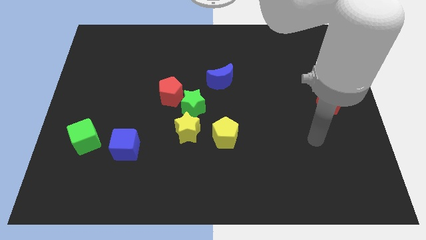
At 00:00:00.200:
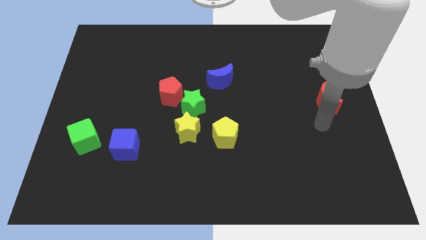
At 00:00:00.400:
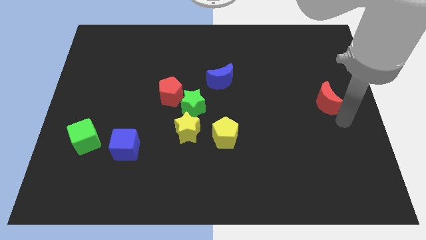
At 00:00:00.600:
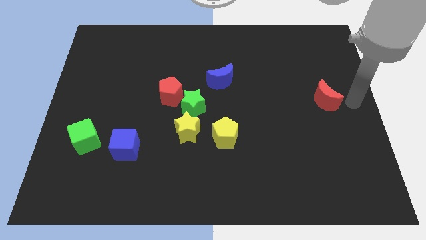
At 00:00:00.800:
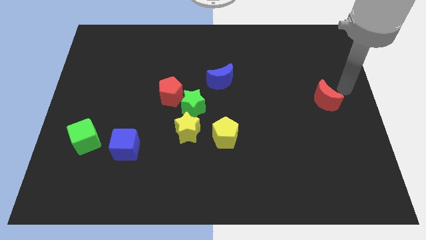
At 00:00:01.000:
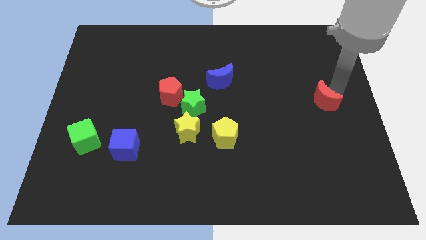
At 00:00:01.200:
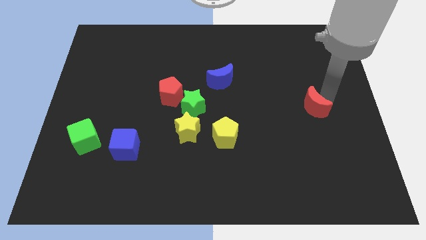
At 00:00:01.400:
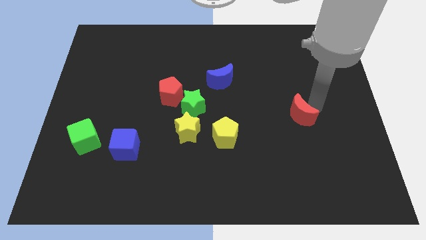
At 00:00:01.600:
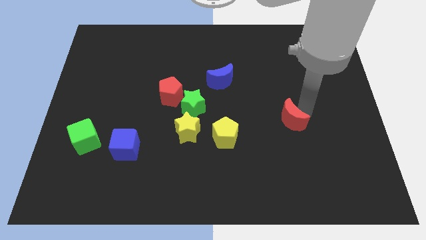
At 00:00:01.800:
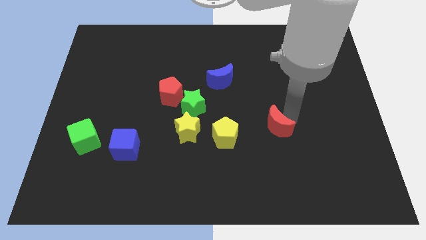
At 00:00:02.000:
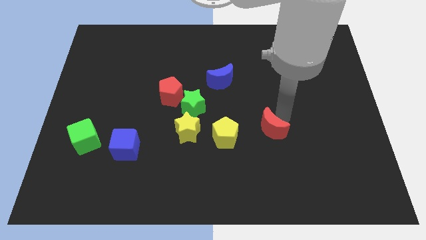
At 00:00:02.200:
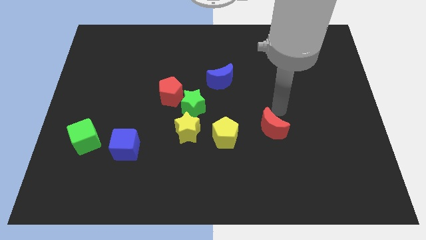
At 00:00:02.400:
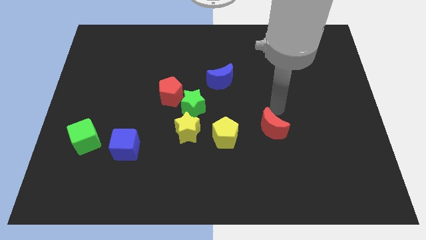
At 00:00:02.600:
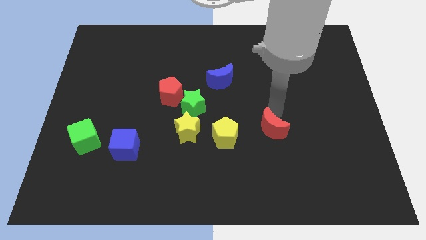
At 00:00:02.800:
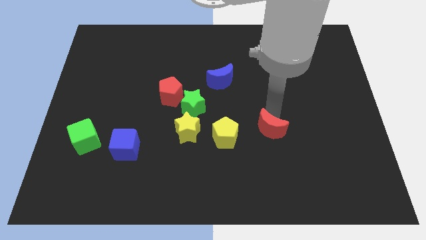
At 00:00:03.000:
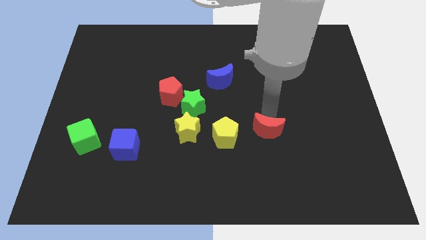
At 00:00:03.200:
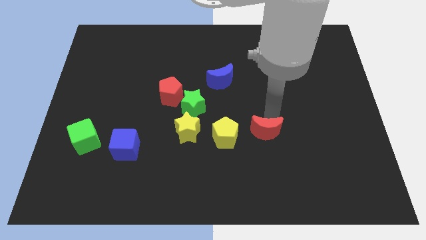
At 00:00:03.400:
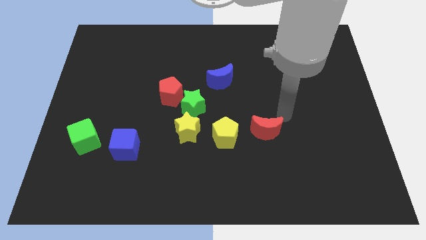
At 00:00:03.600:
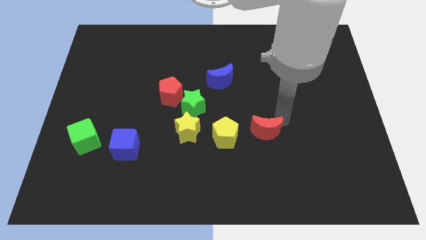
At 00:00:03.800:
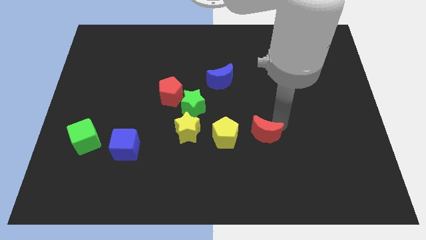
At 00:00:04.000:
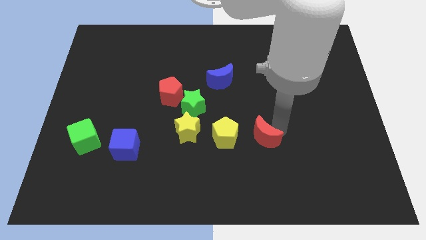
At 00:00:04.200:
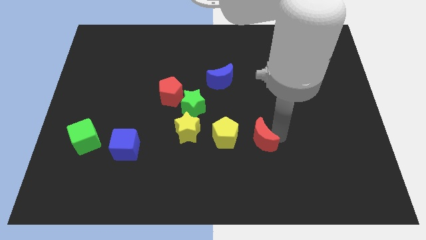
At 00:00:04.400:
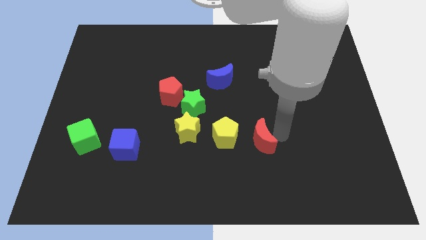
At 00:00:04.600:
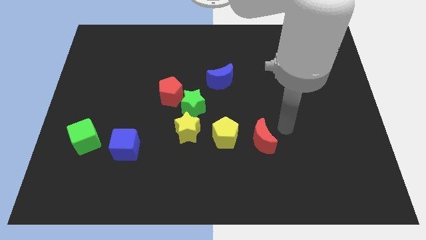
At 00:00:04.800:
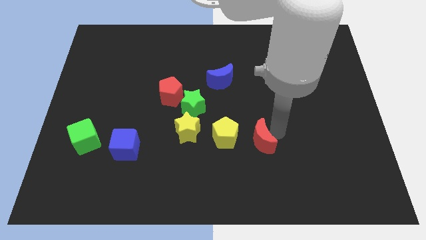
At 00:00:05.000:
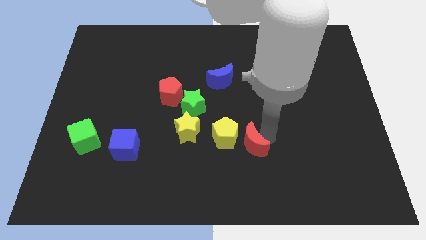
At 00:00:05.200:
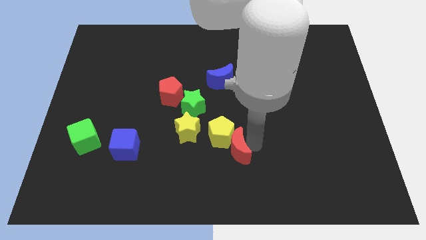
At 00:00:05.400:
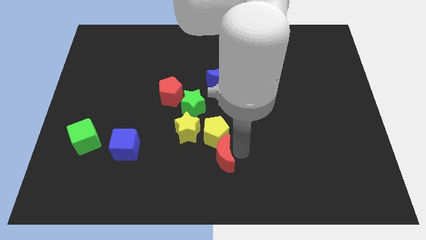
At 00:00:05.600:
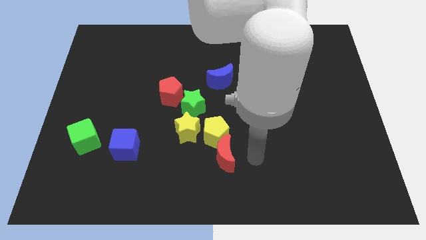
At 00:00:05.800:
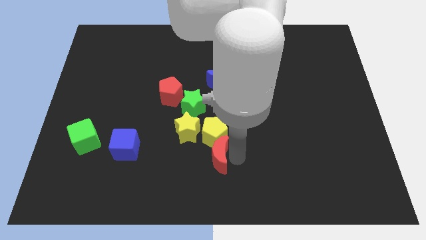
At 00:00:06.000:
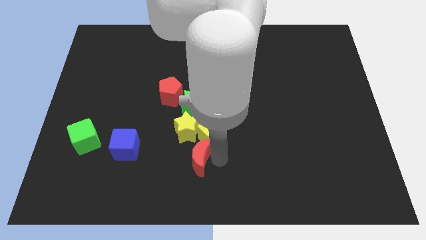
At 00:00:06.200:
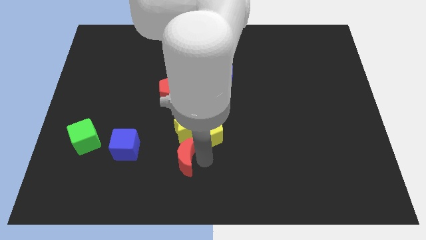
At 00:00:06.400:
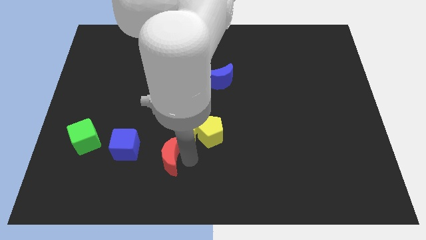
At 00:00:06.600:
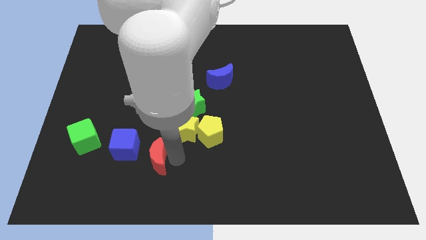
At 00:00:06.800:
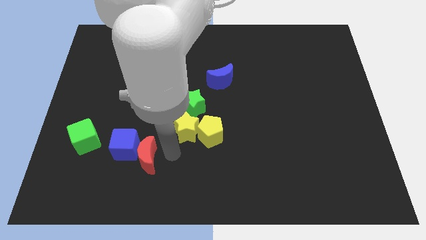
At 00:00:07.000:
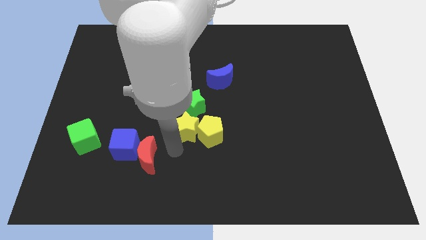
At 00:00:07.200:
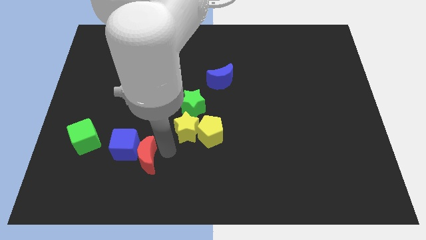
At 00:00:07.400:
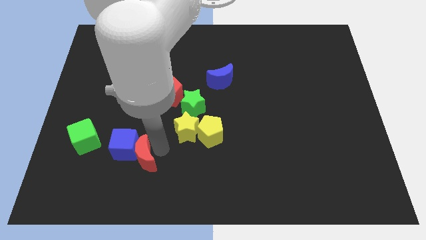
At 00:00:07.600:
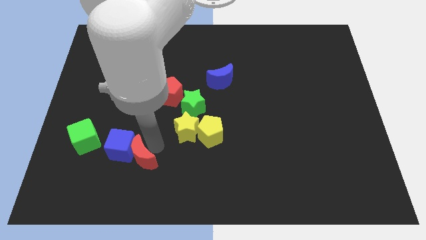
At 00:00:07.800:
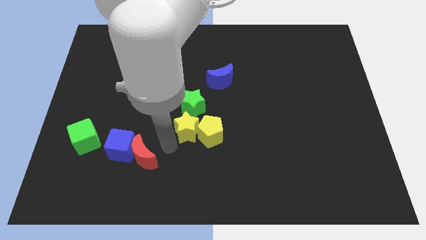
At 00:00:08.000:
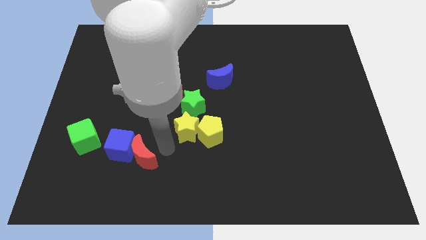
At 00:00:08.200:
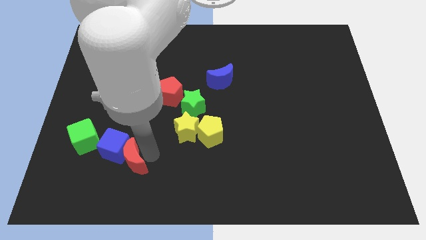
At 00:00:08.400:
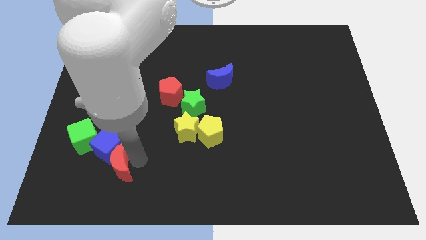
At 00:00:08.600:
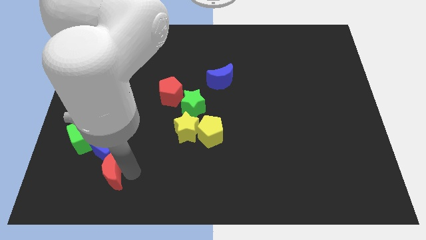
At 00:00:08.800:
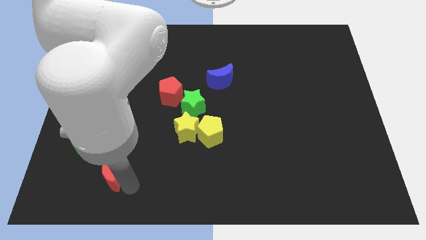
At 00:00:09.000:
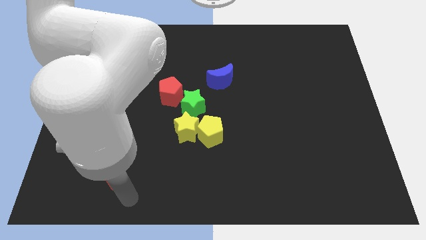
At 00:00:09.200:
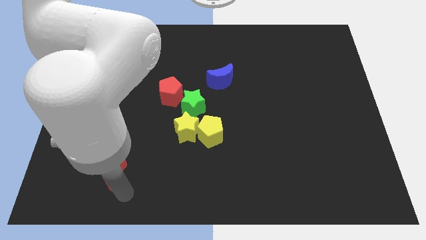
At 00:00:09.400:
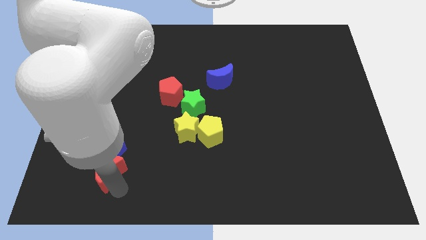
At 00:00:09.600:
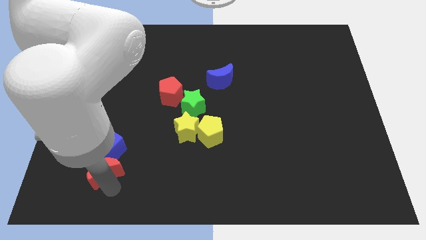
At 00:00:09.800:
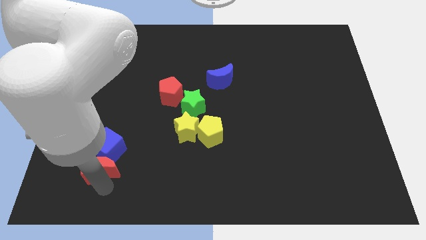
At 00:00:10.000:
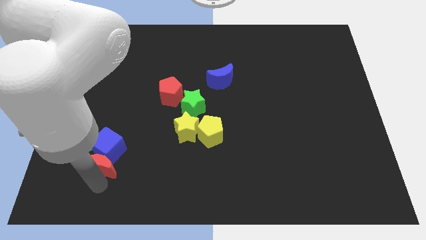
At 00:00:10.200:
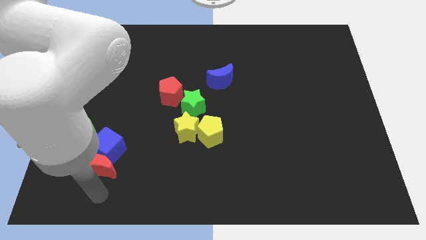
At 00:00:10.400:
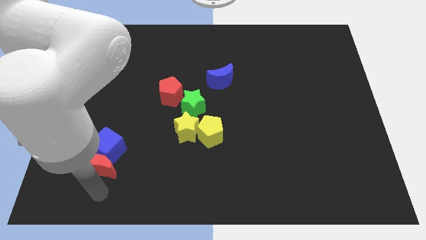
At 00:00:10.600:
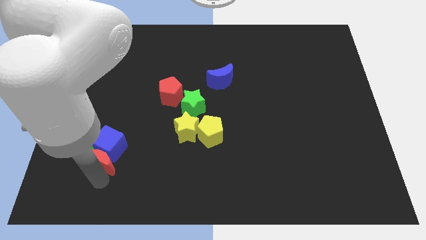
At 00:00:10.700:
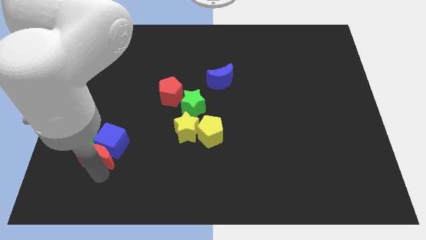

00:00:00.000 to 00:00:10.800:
move the red moon next to the green cube

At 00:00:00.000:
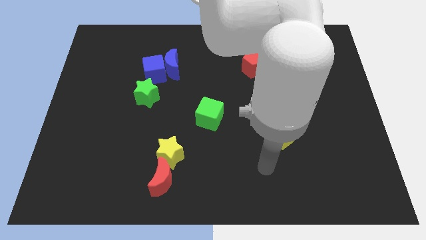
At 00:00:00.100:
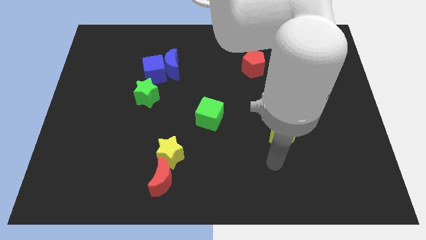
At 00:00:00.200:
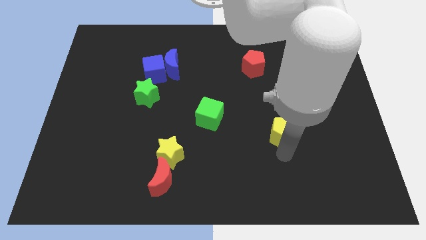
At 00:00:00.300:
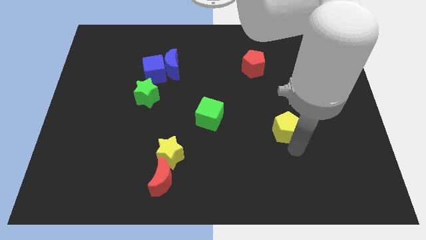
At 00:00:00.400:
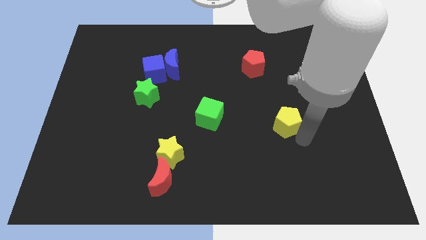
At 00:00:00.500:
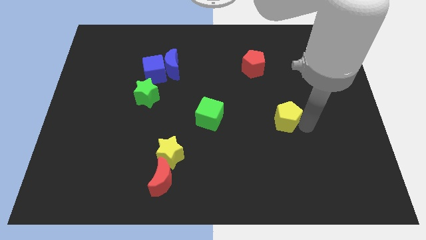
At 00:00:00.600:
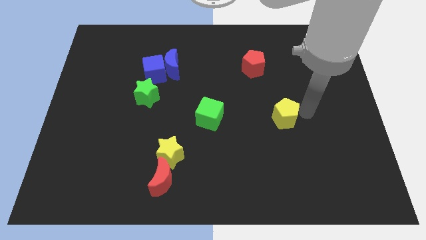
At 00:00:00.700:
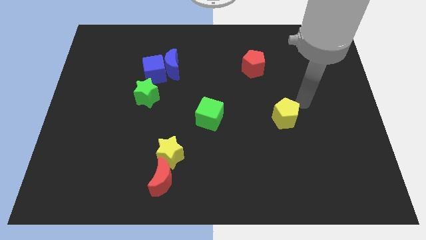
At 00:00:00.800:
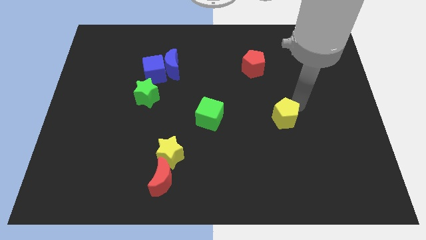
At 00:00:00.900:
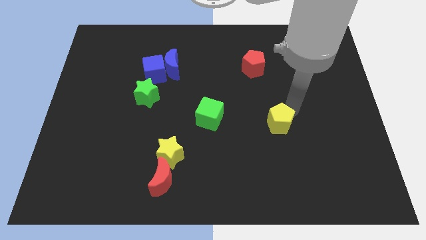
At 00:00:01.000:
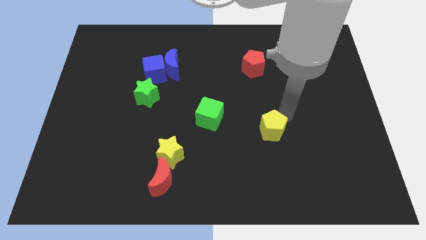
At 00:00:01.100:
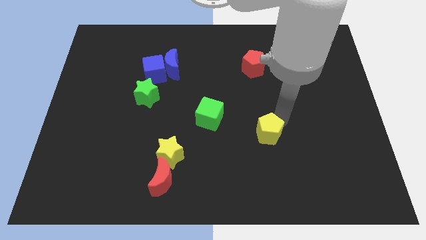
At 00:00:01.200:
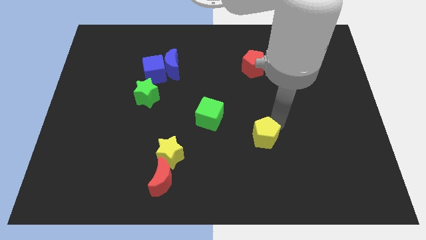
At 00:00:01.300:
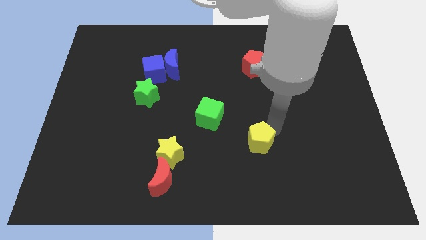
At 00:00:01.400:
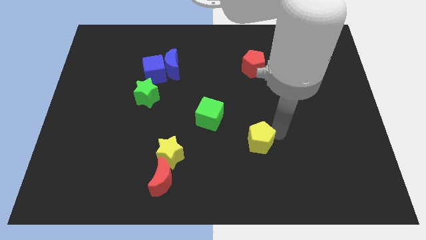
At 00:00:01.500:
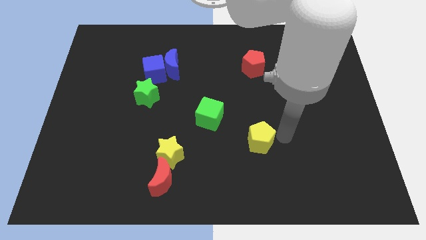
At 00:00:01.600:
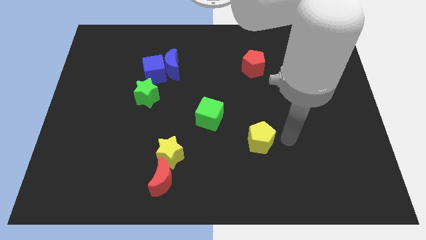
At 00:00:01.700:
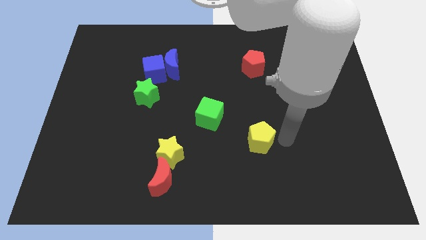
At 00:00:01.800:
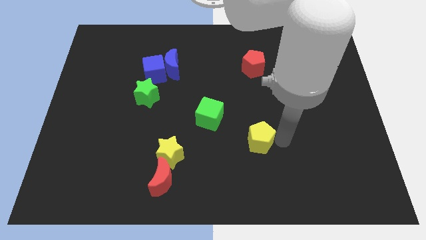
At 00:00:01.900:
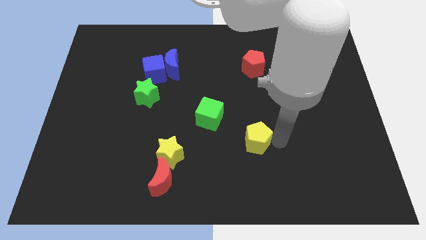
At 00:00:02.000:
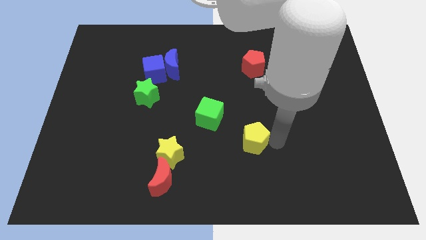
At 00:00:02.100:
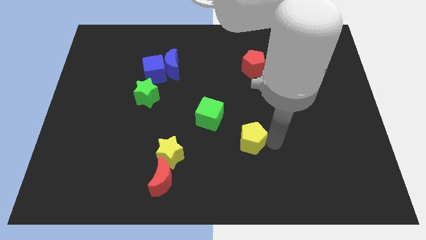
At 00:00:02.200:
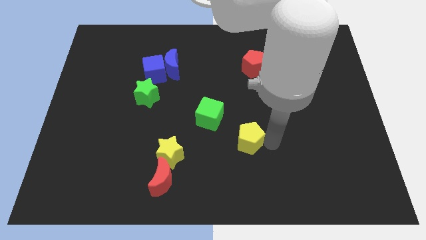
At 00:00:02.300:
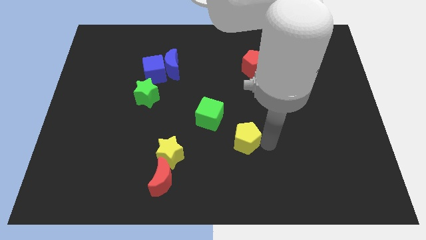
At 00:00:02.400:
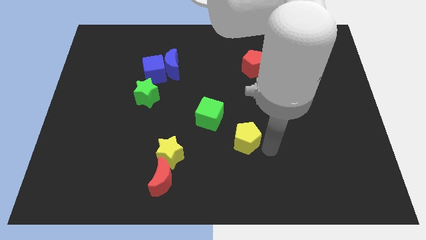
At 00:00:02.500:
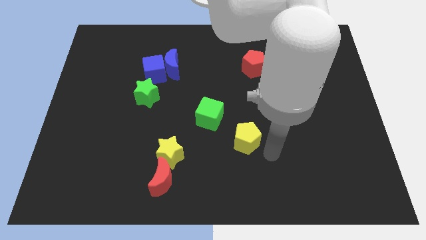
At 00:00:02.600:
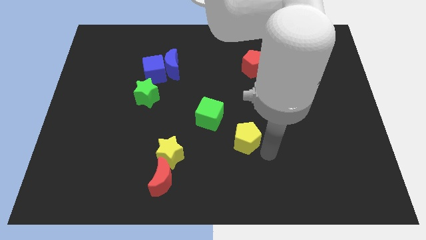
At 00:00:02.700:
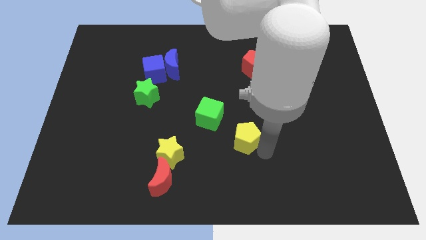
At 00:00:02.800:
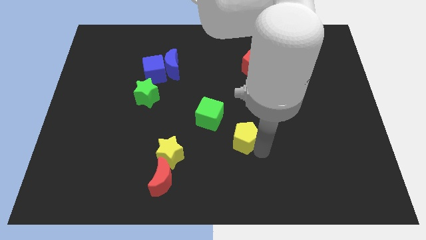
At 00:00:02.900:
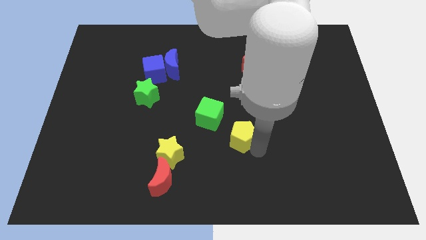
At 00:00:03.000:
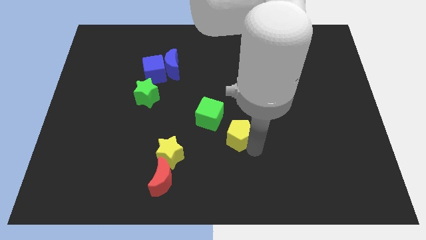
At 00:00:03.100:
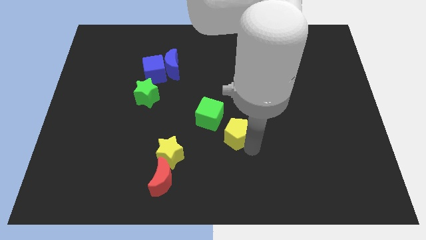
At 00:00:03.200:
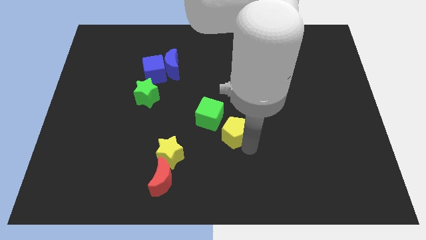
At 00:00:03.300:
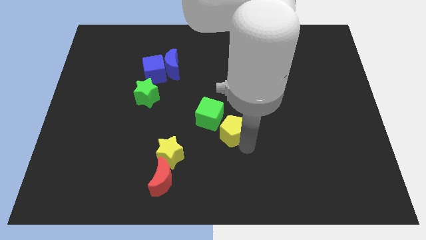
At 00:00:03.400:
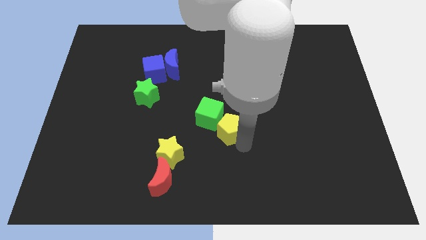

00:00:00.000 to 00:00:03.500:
push the yellow pentagon to the green cube
